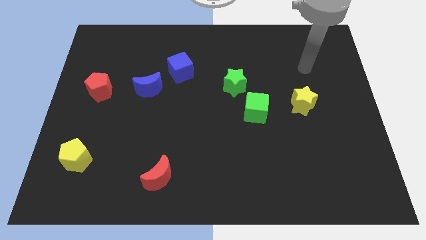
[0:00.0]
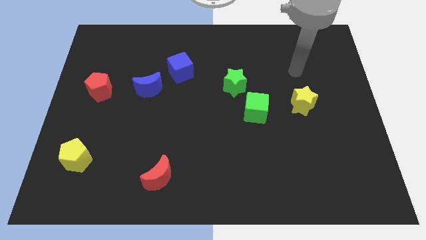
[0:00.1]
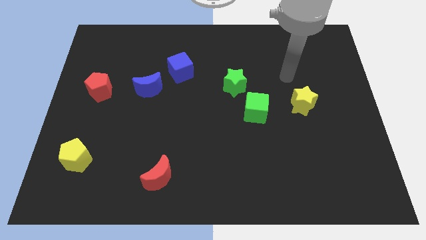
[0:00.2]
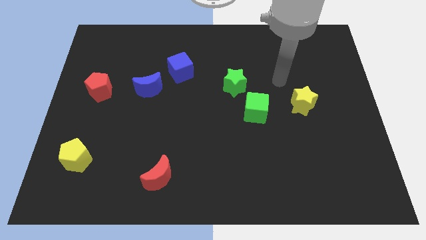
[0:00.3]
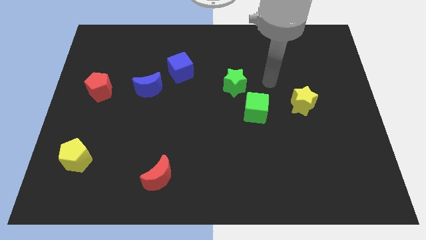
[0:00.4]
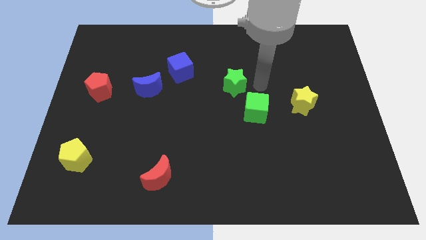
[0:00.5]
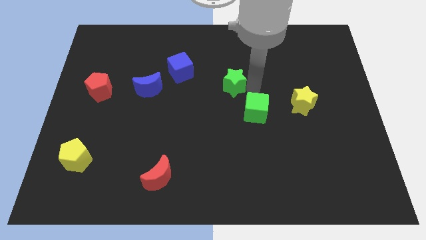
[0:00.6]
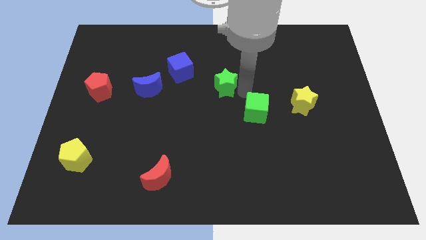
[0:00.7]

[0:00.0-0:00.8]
move the green cube away from the green star

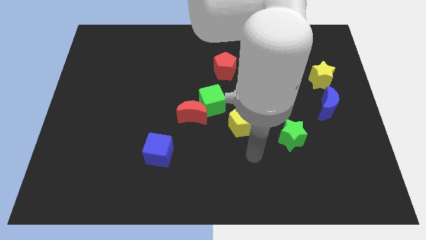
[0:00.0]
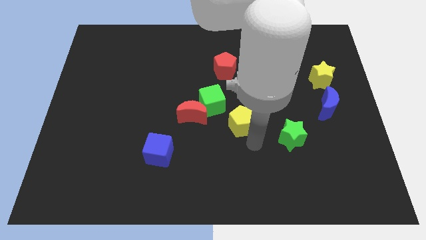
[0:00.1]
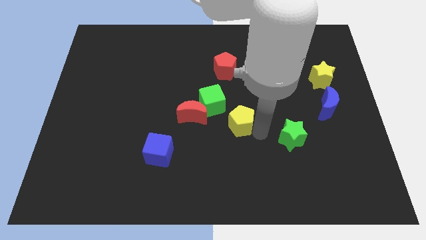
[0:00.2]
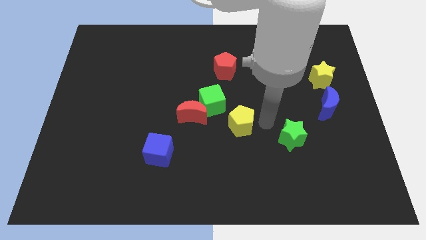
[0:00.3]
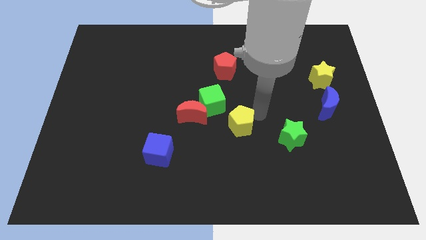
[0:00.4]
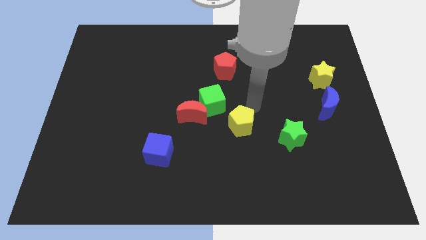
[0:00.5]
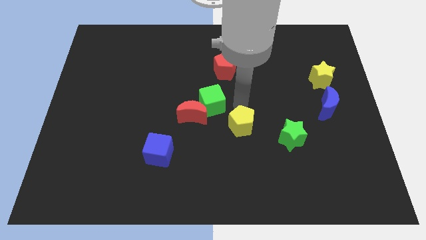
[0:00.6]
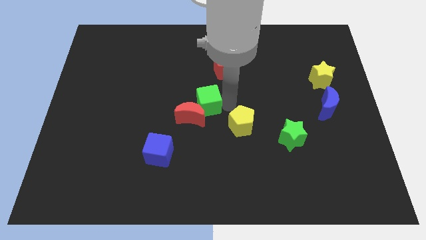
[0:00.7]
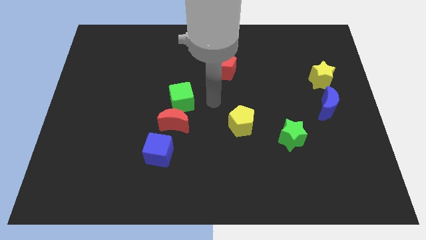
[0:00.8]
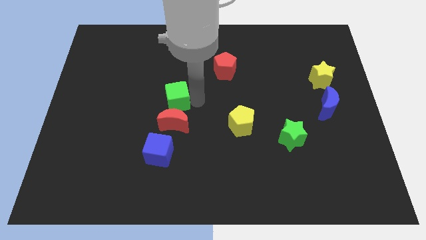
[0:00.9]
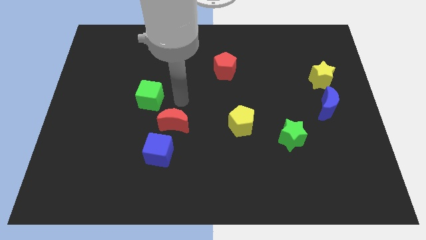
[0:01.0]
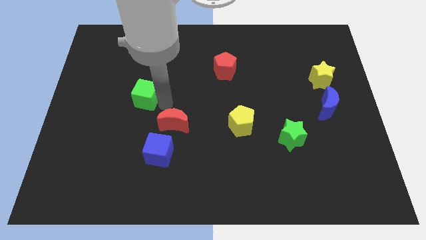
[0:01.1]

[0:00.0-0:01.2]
move the red moon away from the green cube

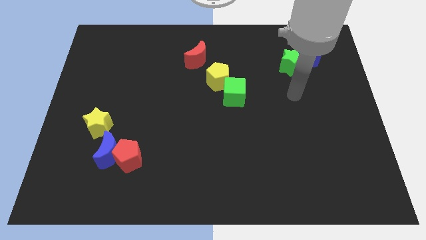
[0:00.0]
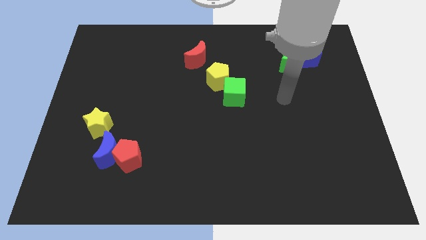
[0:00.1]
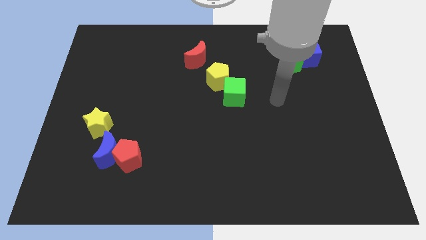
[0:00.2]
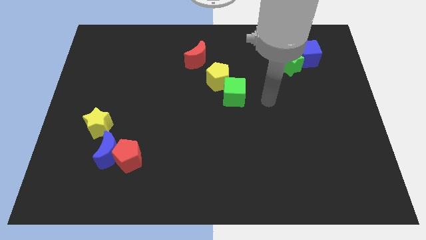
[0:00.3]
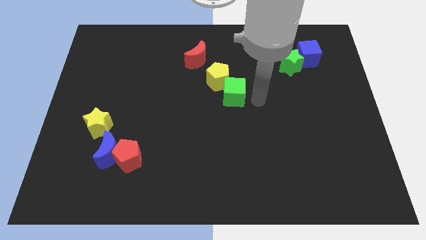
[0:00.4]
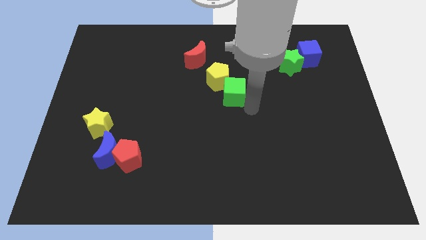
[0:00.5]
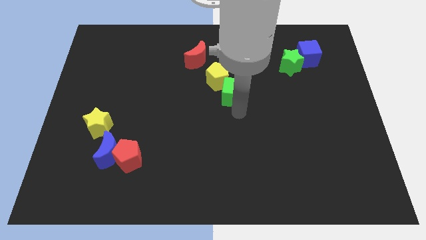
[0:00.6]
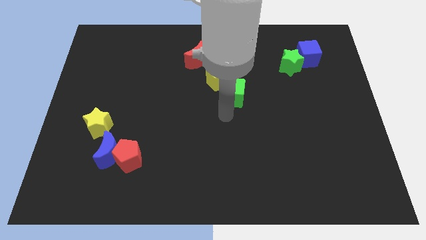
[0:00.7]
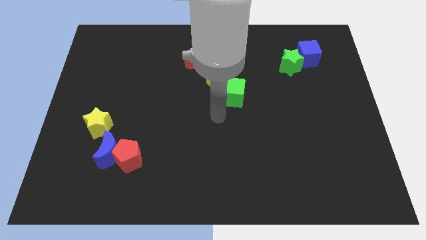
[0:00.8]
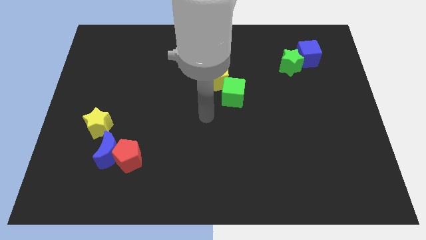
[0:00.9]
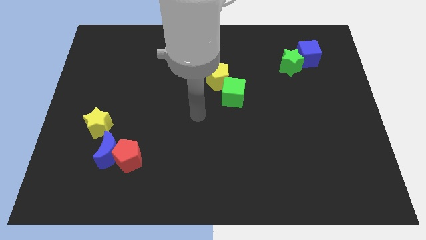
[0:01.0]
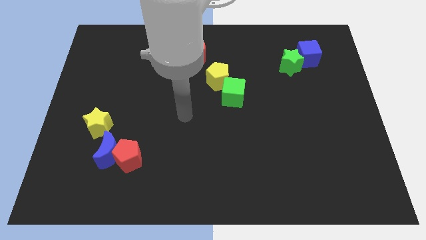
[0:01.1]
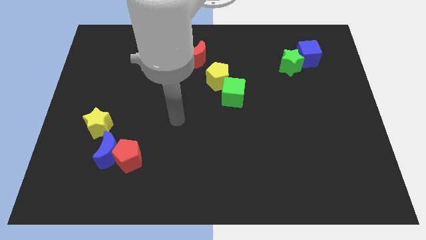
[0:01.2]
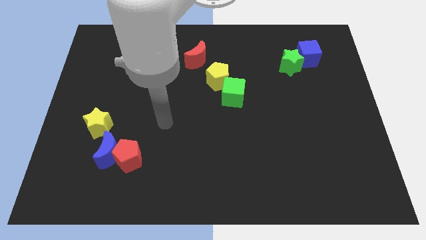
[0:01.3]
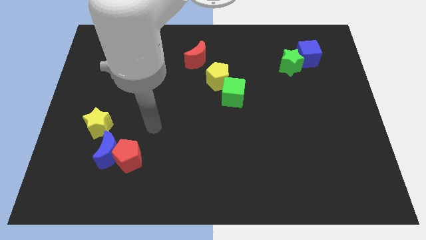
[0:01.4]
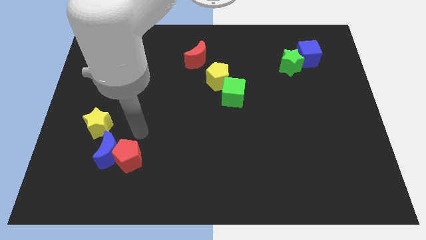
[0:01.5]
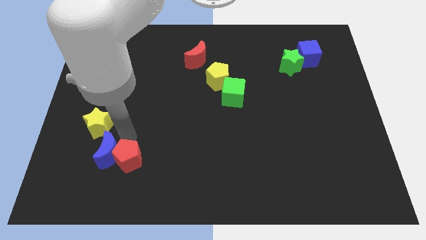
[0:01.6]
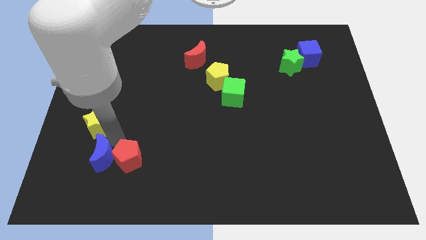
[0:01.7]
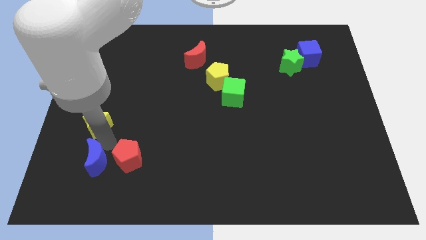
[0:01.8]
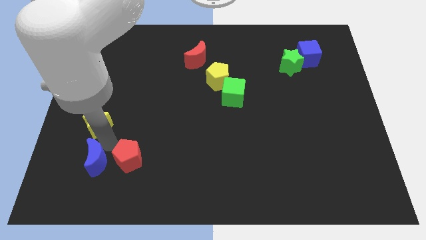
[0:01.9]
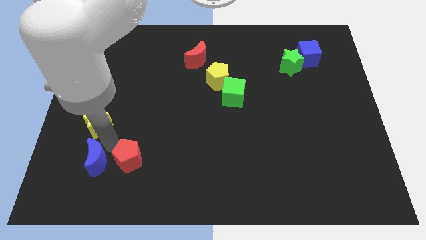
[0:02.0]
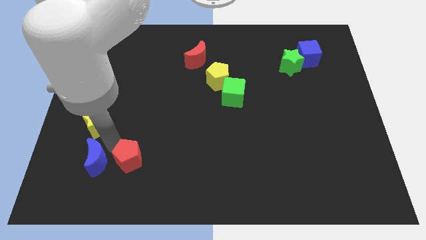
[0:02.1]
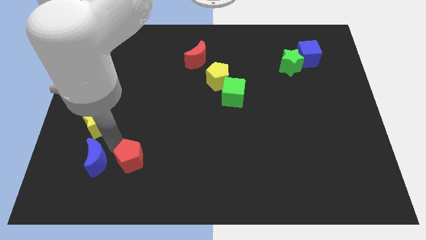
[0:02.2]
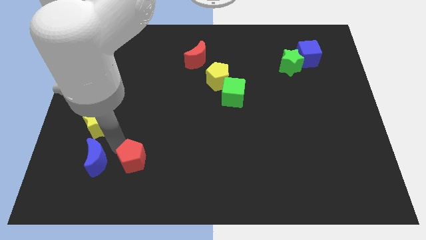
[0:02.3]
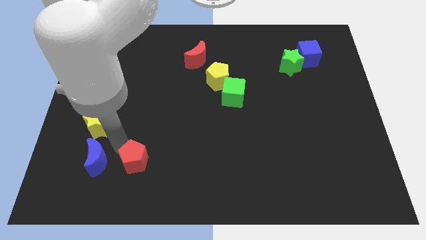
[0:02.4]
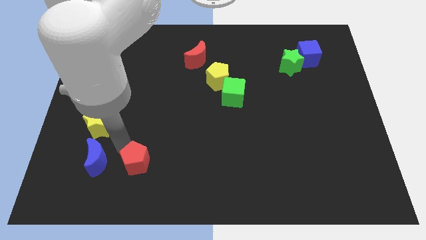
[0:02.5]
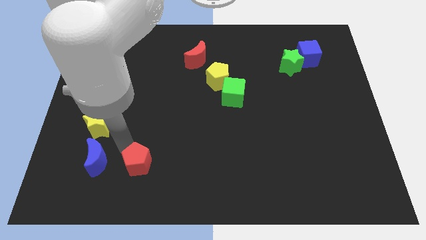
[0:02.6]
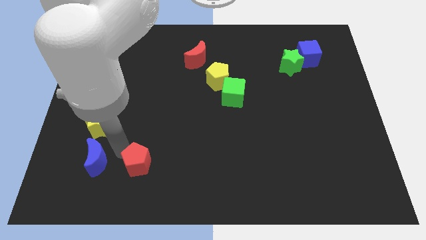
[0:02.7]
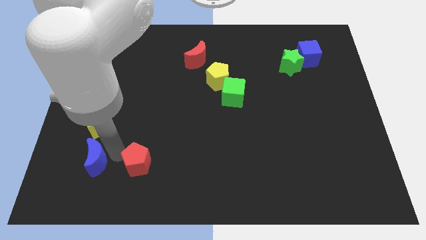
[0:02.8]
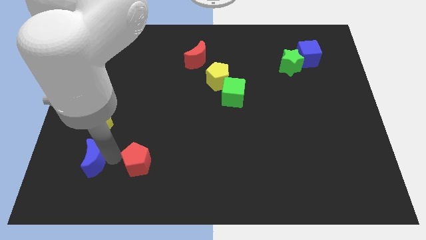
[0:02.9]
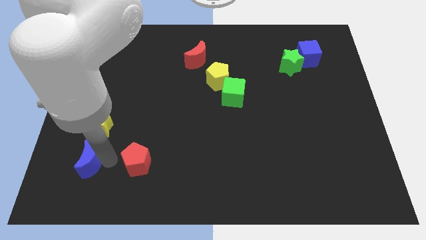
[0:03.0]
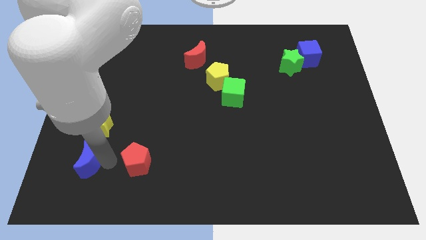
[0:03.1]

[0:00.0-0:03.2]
separate the red pentagon from the blue moon

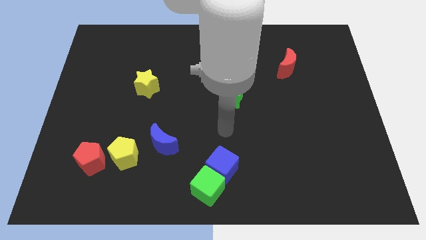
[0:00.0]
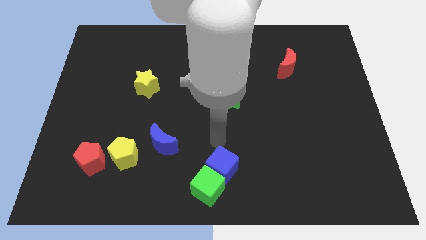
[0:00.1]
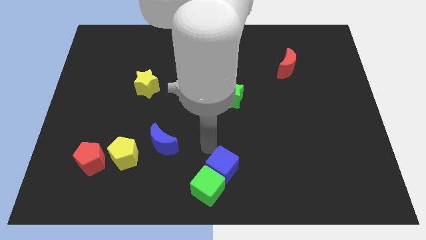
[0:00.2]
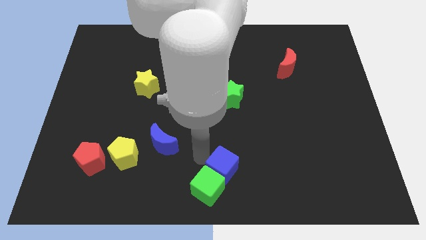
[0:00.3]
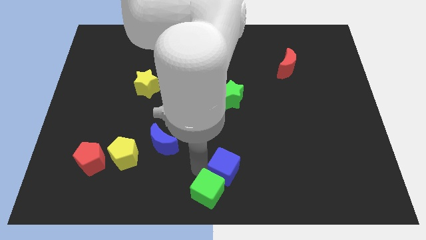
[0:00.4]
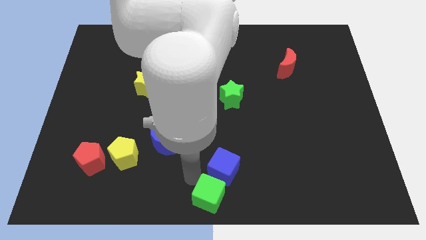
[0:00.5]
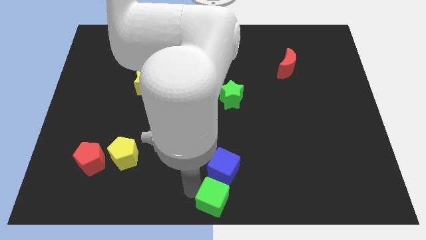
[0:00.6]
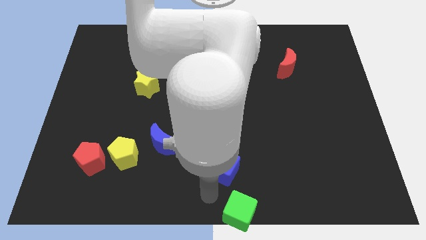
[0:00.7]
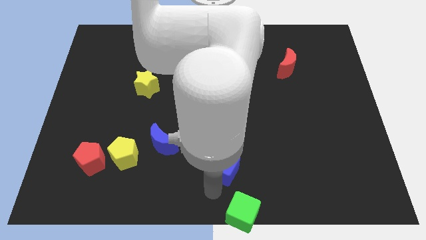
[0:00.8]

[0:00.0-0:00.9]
separate the blue cube from the green cube

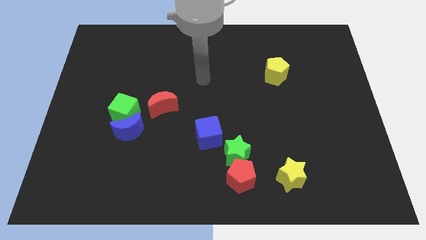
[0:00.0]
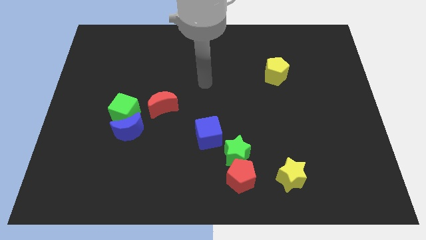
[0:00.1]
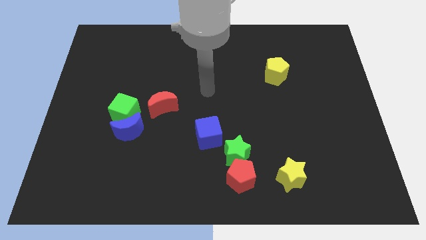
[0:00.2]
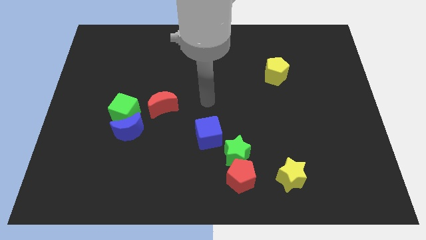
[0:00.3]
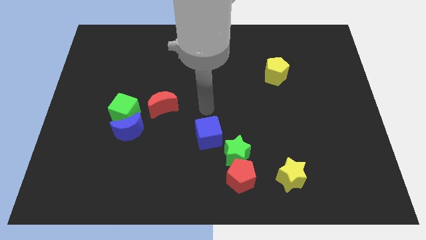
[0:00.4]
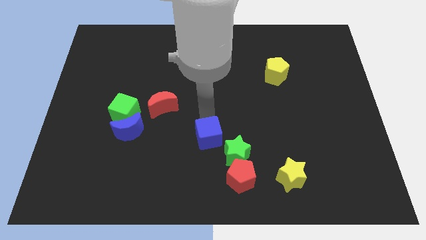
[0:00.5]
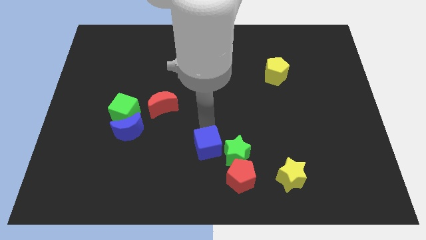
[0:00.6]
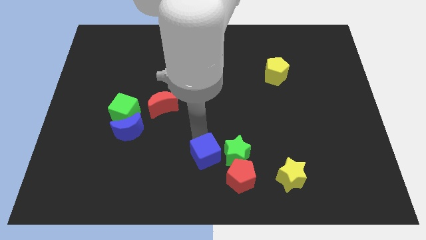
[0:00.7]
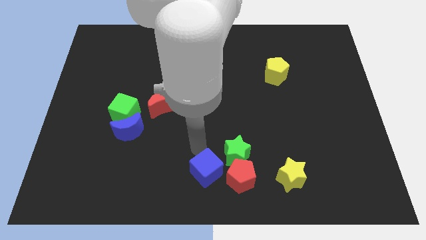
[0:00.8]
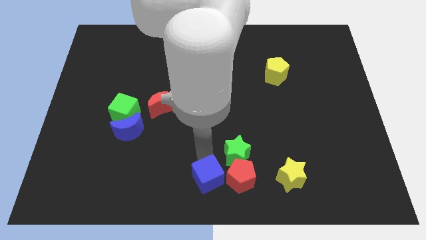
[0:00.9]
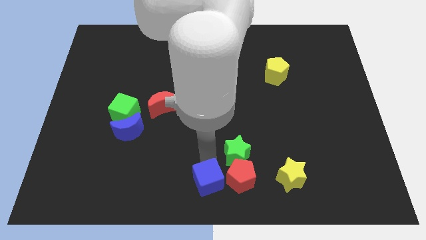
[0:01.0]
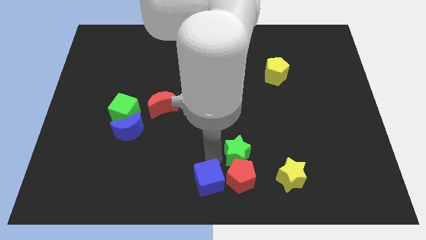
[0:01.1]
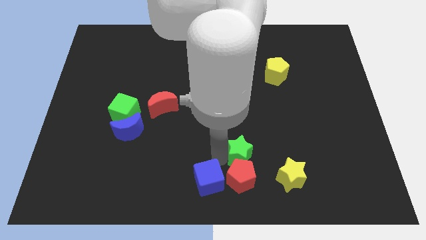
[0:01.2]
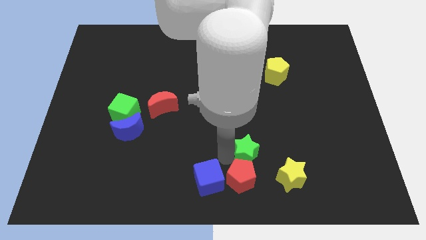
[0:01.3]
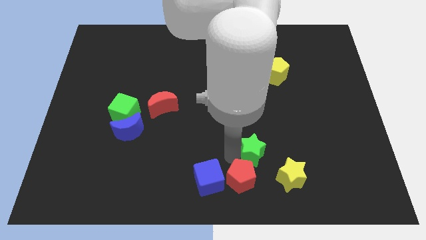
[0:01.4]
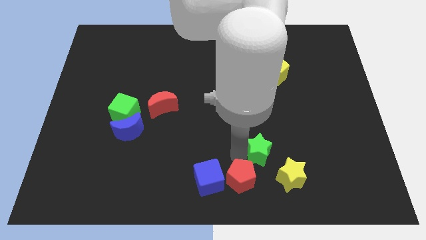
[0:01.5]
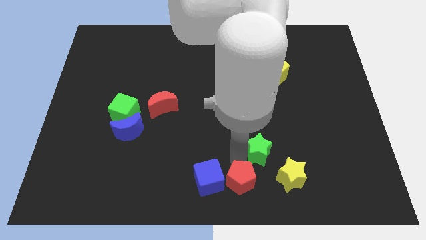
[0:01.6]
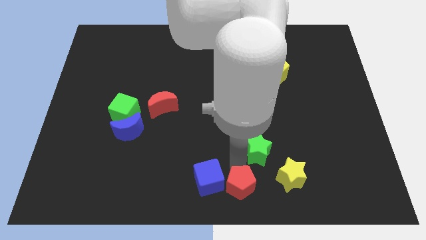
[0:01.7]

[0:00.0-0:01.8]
separate the green star from the red pentagon and blue cube

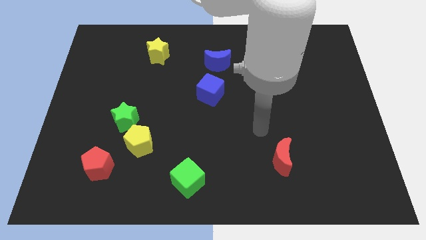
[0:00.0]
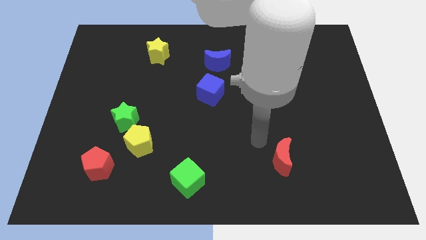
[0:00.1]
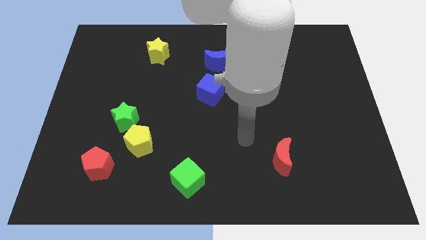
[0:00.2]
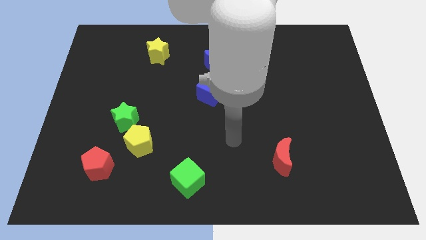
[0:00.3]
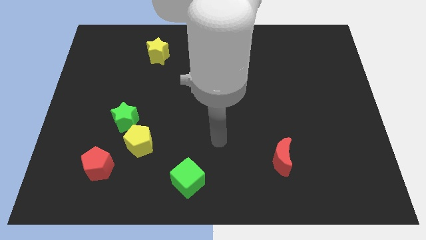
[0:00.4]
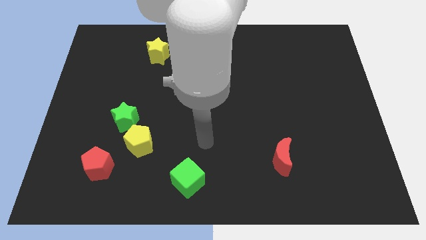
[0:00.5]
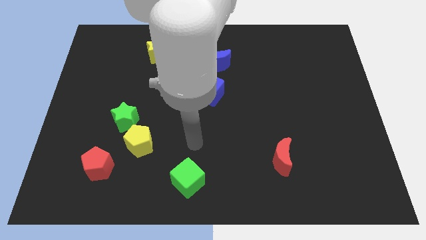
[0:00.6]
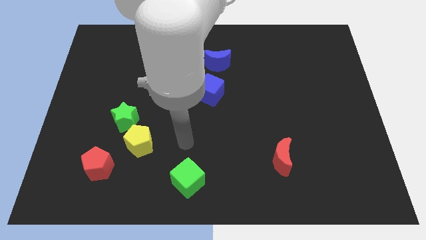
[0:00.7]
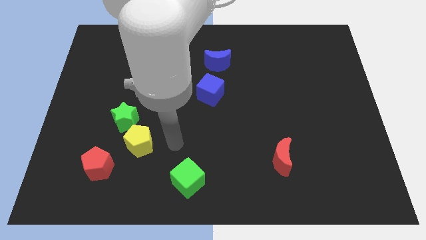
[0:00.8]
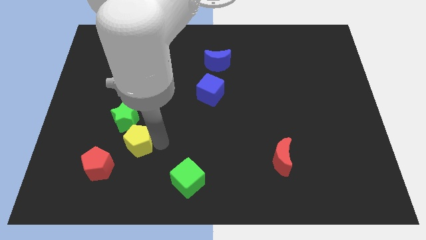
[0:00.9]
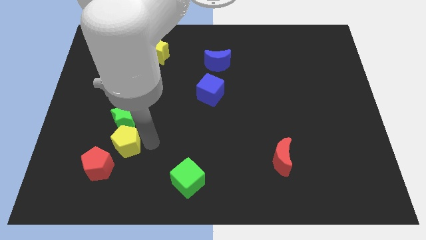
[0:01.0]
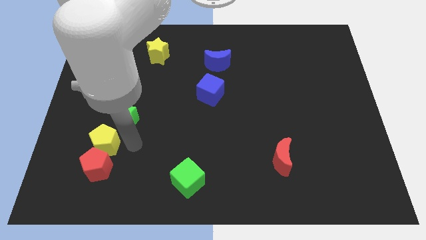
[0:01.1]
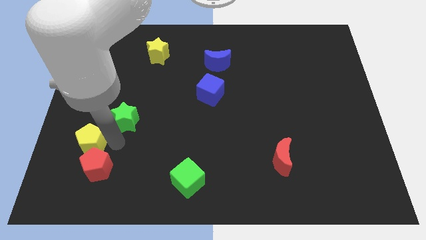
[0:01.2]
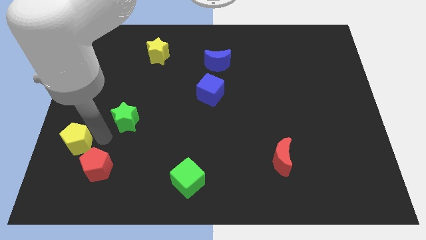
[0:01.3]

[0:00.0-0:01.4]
move the green star away from the yellow pentagon
